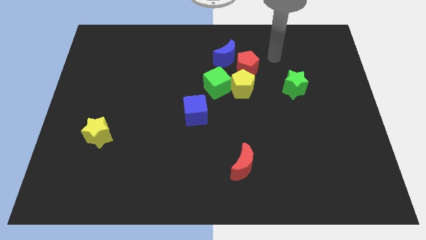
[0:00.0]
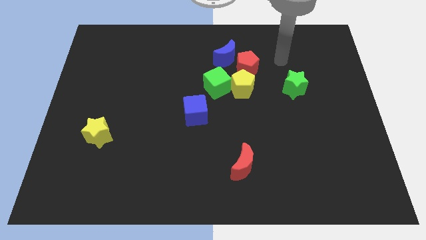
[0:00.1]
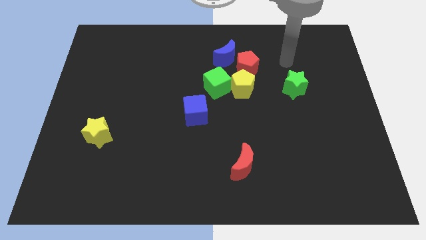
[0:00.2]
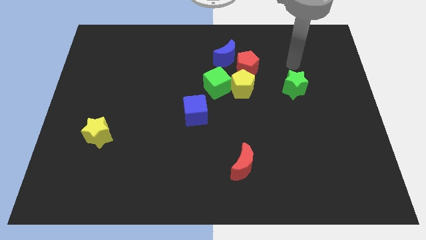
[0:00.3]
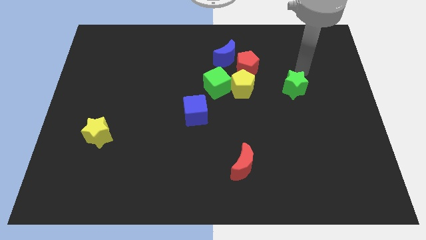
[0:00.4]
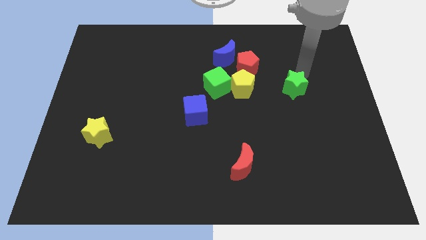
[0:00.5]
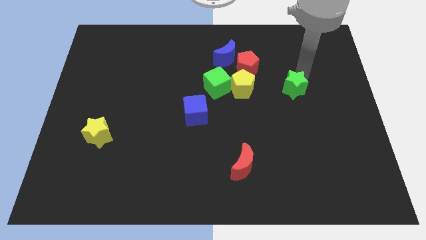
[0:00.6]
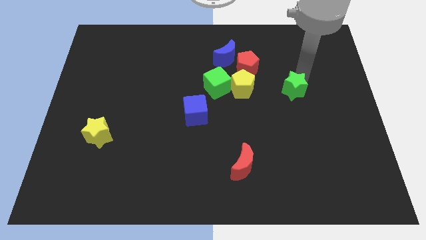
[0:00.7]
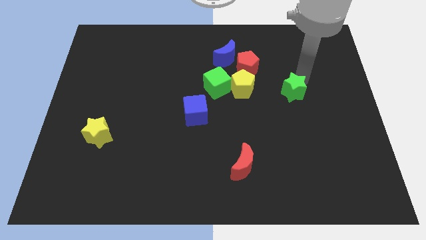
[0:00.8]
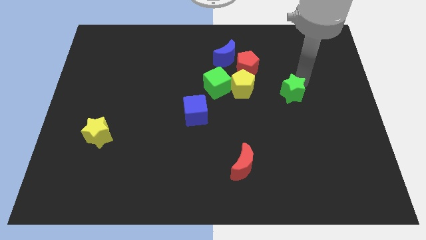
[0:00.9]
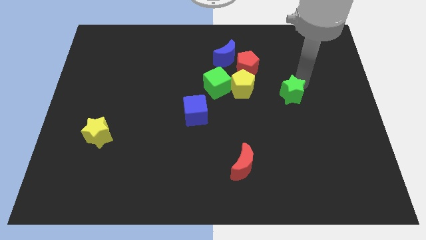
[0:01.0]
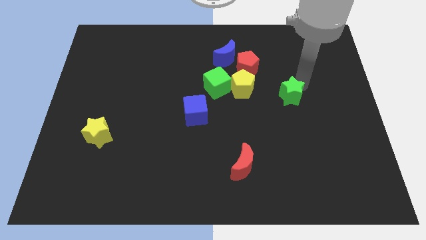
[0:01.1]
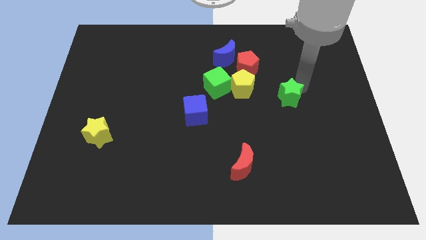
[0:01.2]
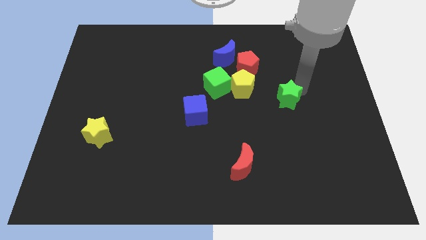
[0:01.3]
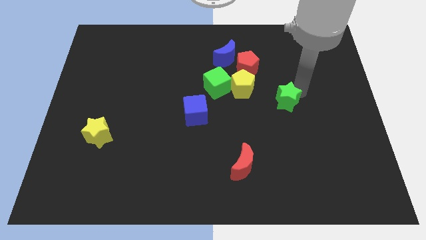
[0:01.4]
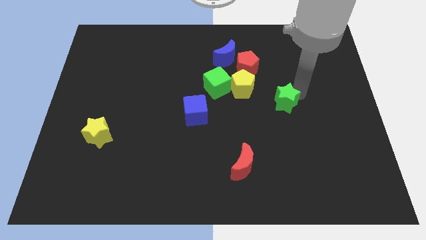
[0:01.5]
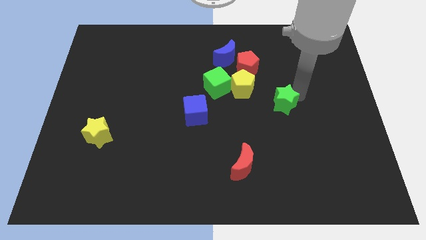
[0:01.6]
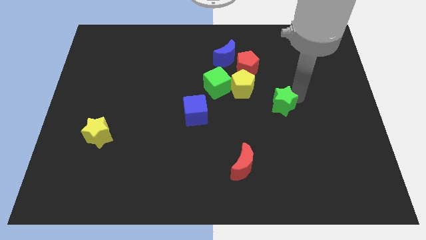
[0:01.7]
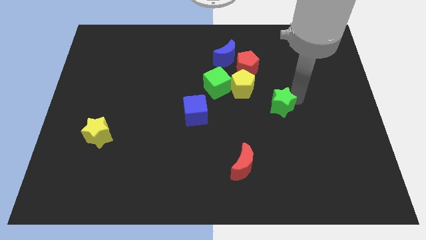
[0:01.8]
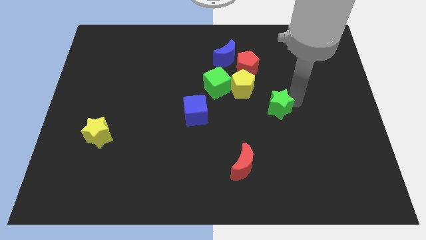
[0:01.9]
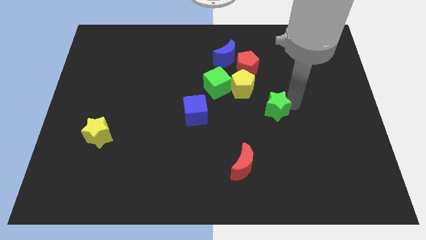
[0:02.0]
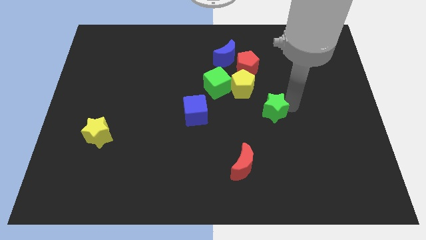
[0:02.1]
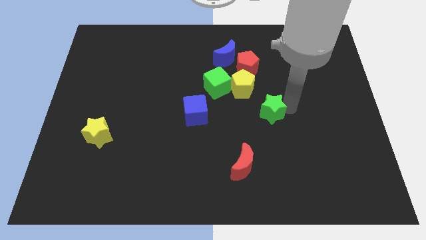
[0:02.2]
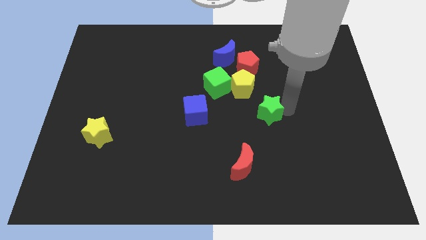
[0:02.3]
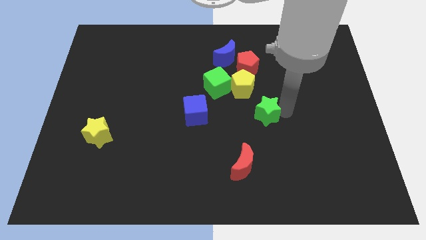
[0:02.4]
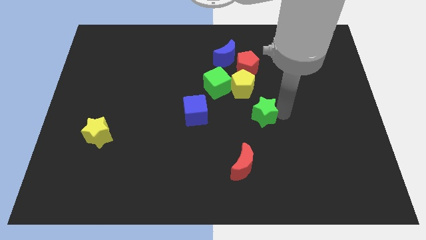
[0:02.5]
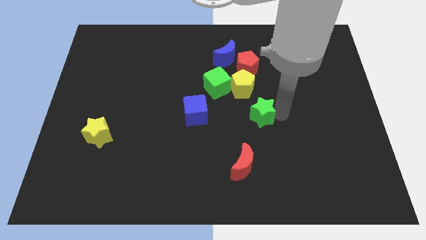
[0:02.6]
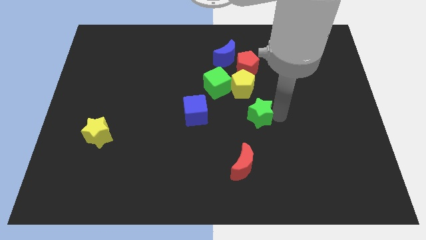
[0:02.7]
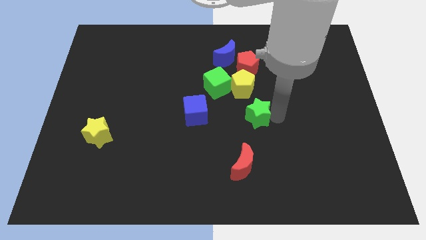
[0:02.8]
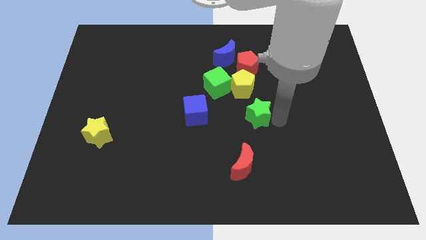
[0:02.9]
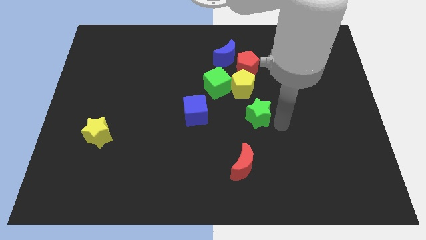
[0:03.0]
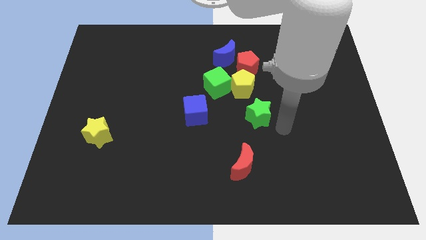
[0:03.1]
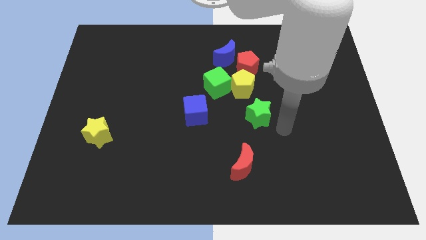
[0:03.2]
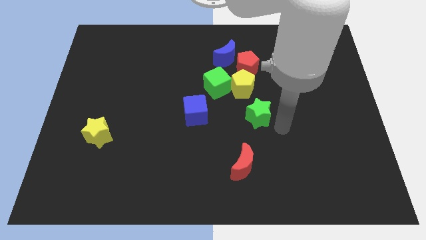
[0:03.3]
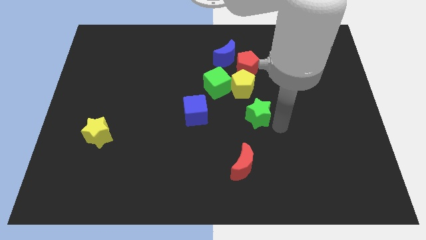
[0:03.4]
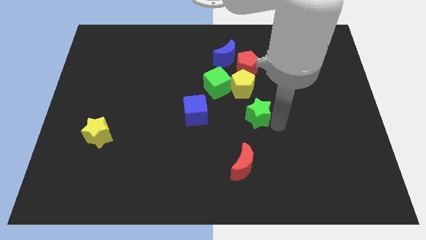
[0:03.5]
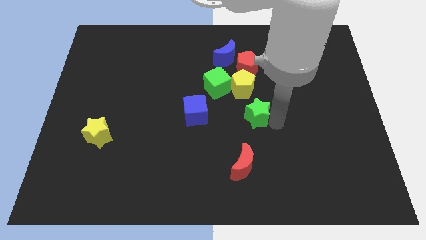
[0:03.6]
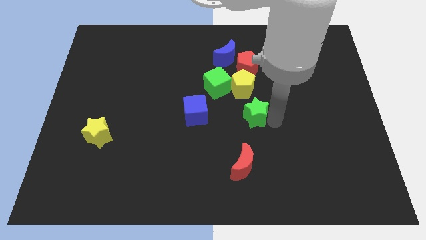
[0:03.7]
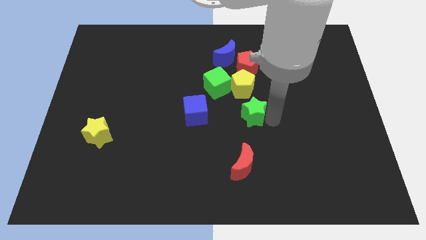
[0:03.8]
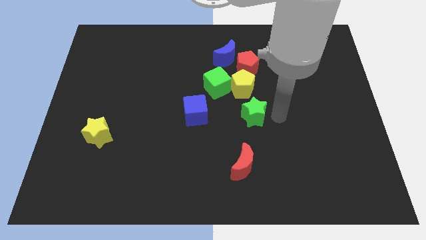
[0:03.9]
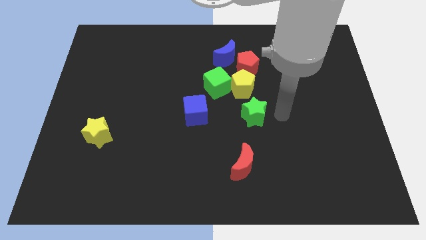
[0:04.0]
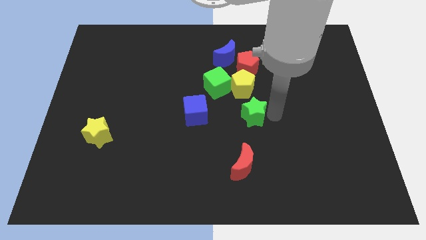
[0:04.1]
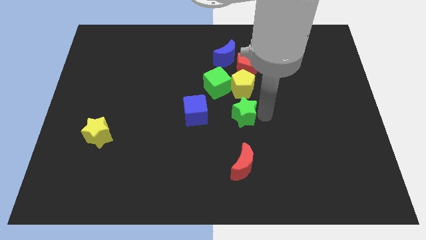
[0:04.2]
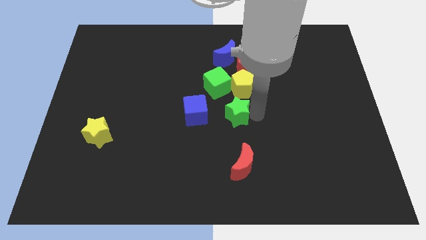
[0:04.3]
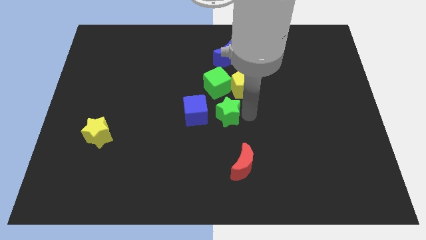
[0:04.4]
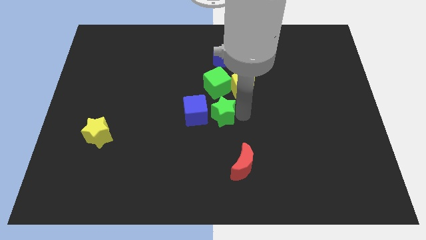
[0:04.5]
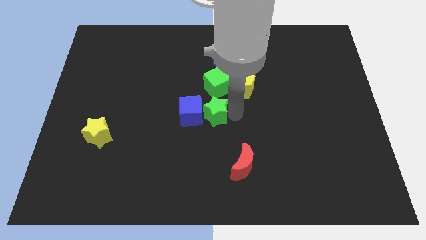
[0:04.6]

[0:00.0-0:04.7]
move the green star close to the blue cube

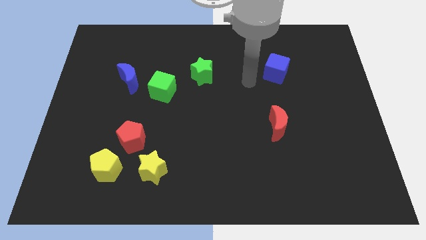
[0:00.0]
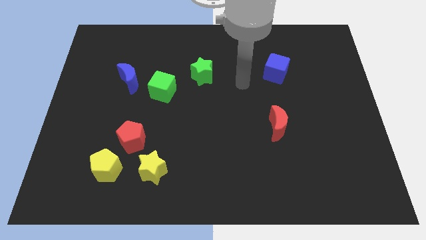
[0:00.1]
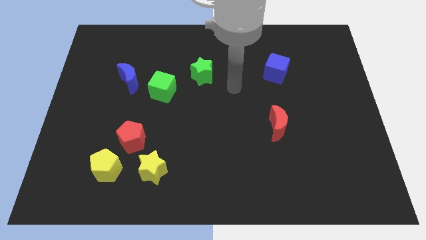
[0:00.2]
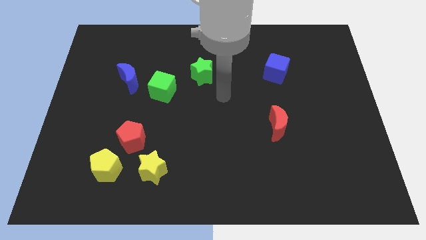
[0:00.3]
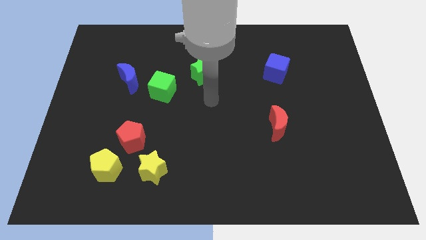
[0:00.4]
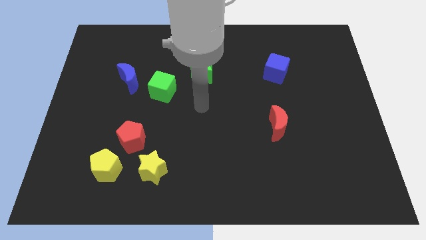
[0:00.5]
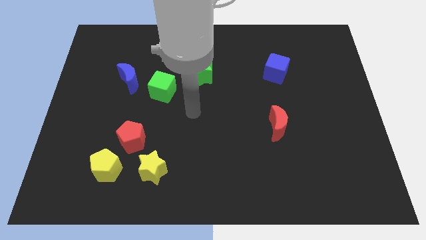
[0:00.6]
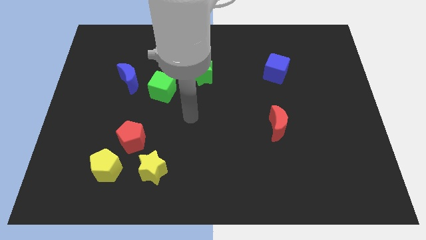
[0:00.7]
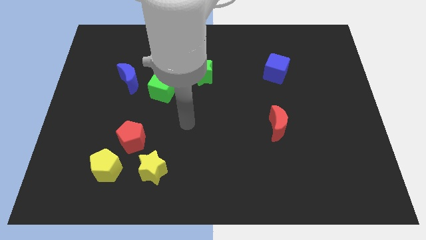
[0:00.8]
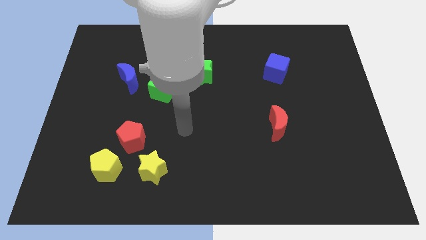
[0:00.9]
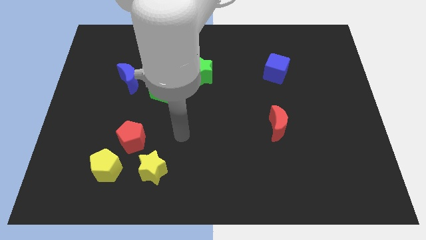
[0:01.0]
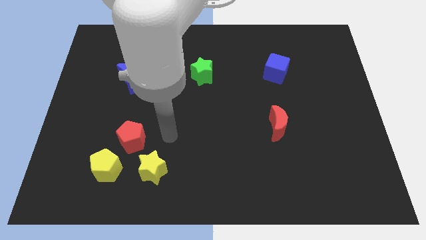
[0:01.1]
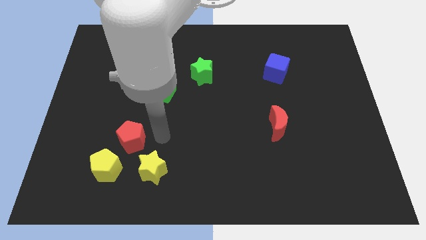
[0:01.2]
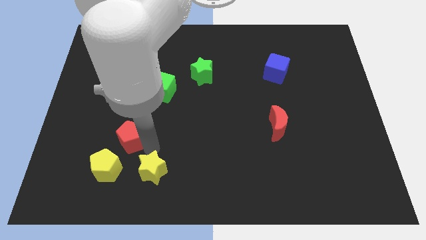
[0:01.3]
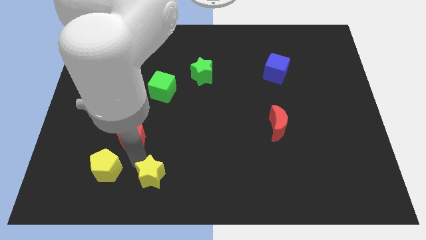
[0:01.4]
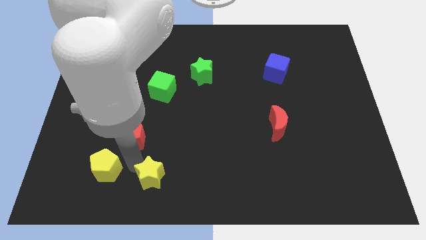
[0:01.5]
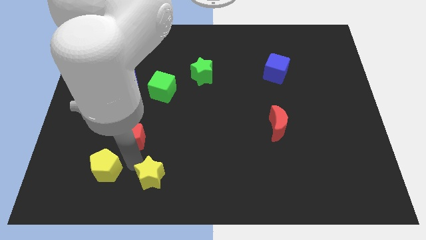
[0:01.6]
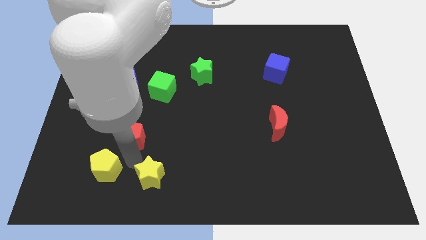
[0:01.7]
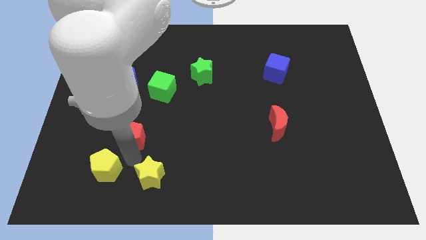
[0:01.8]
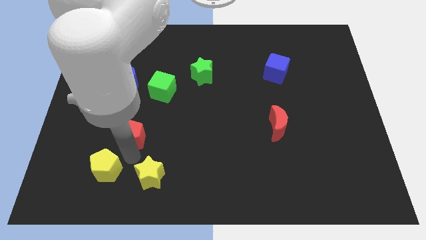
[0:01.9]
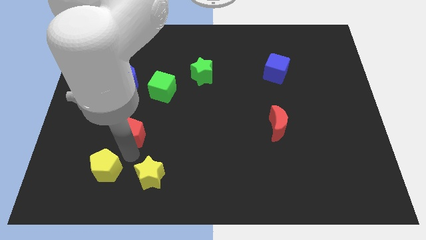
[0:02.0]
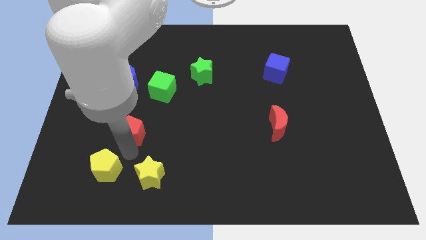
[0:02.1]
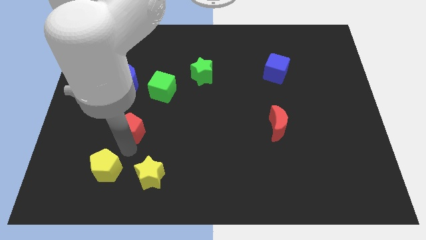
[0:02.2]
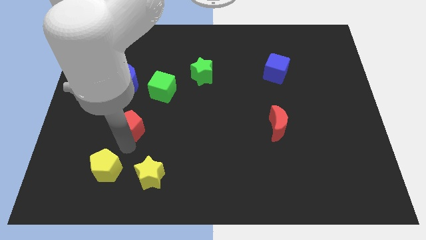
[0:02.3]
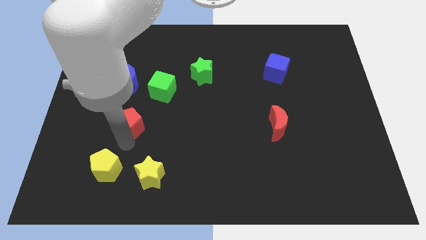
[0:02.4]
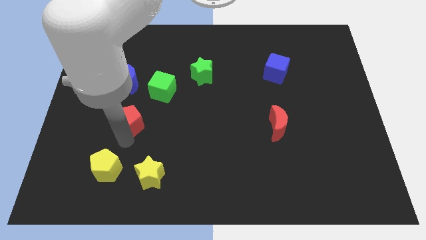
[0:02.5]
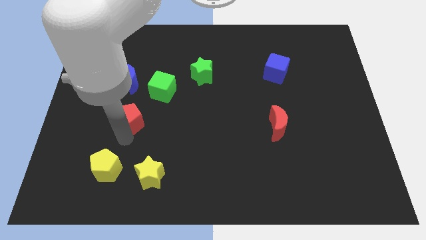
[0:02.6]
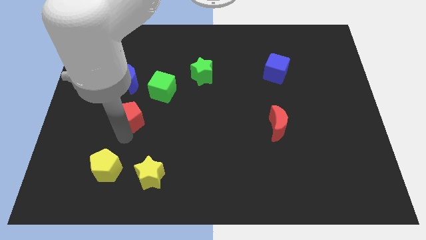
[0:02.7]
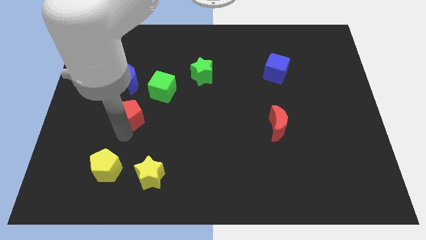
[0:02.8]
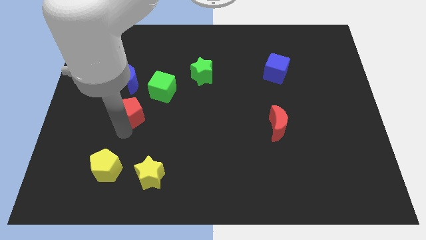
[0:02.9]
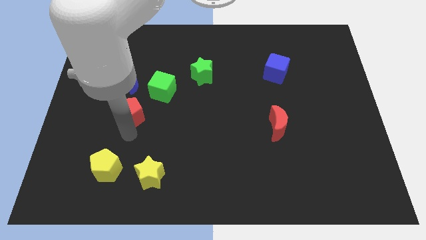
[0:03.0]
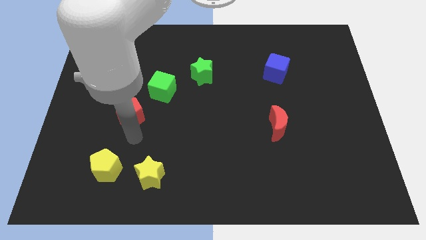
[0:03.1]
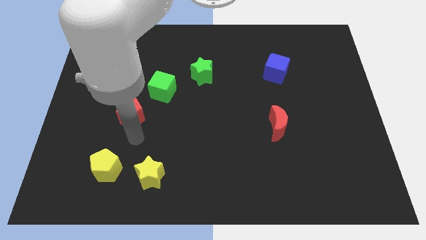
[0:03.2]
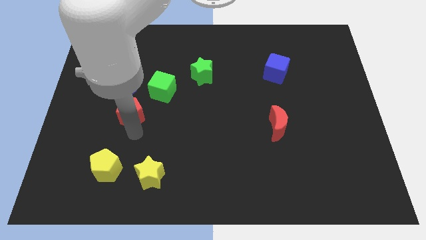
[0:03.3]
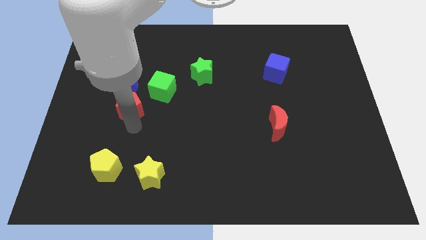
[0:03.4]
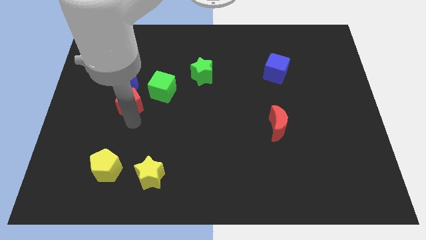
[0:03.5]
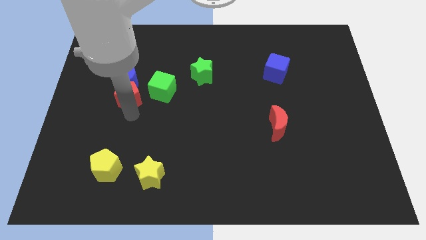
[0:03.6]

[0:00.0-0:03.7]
push the red pentagon next to the blue moon
